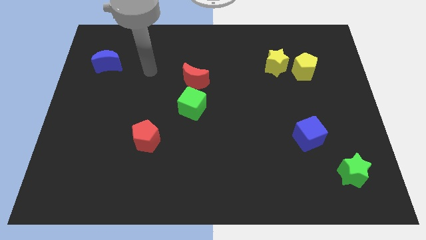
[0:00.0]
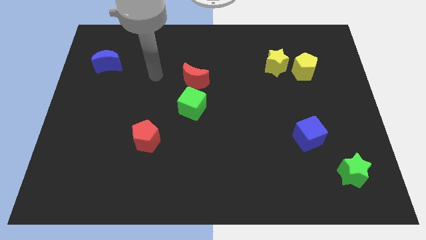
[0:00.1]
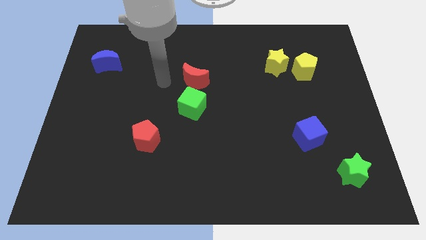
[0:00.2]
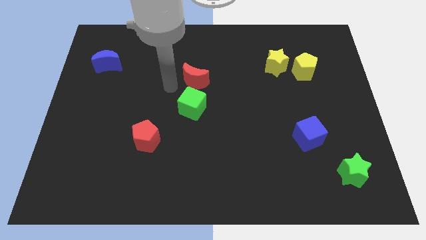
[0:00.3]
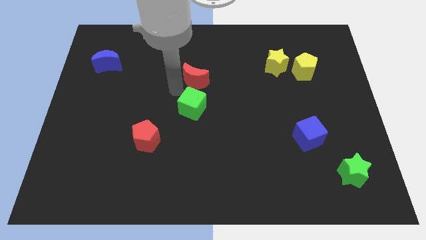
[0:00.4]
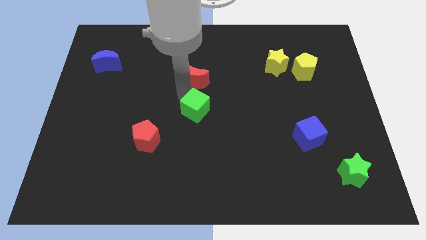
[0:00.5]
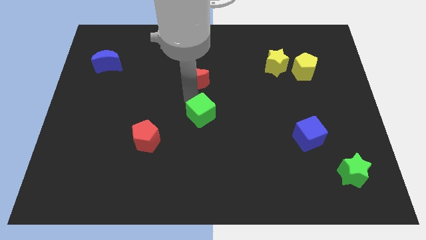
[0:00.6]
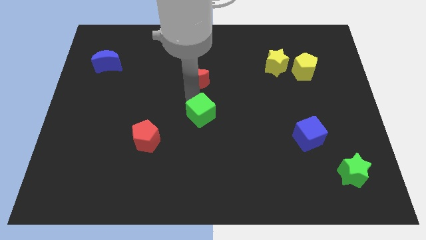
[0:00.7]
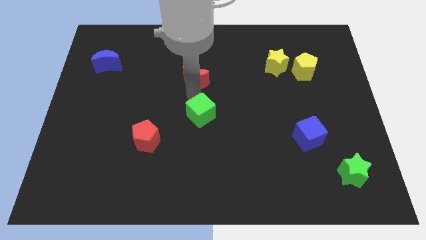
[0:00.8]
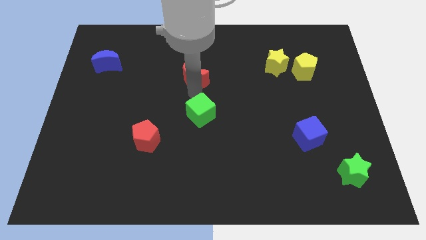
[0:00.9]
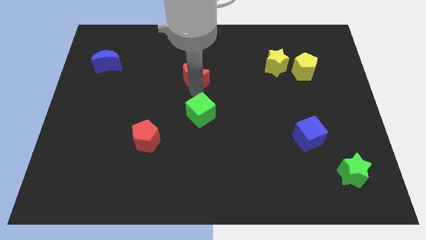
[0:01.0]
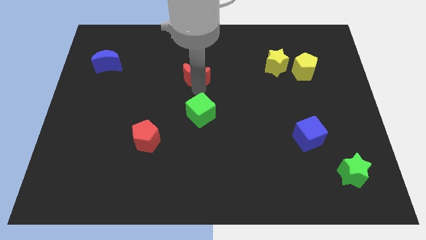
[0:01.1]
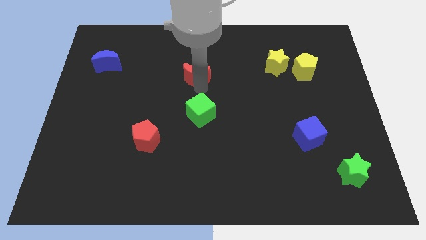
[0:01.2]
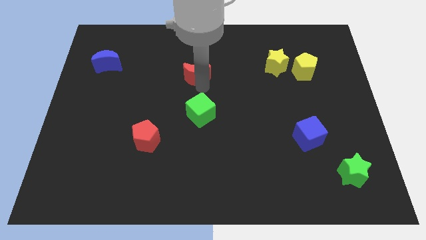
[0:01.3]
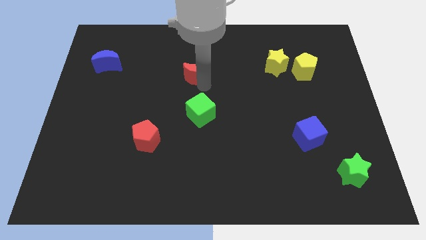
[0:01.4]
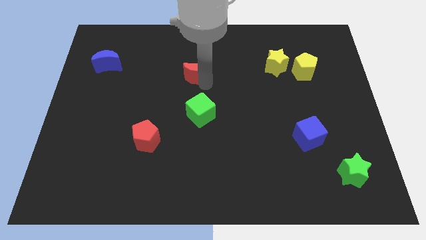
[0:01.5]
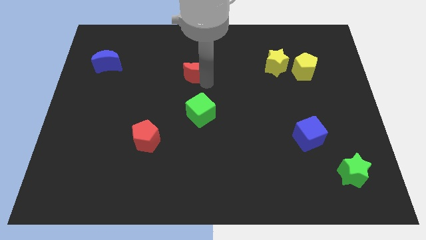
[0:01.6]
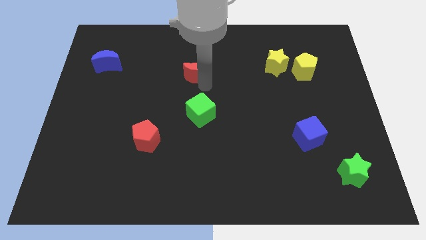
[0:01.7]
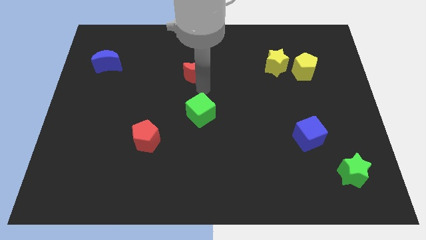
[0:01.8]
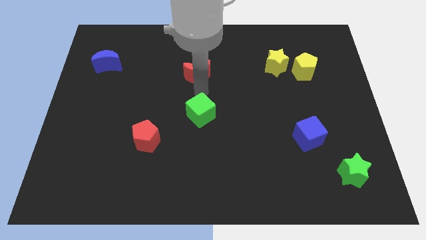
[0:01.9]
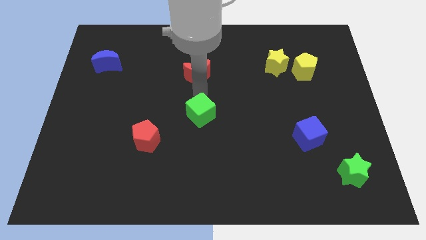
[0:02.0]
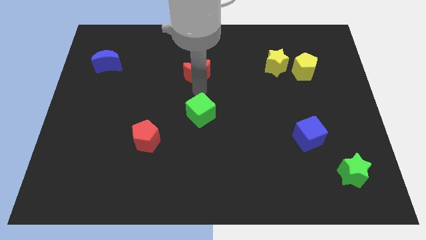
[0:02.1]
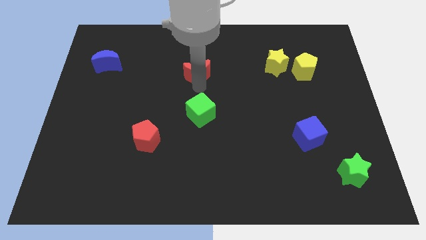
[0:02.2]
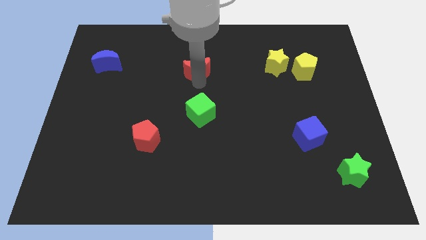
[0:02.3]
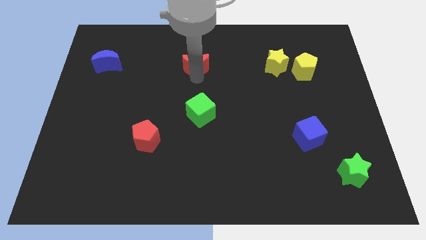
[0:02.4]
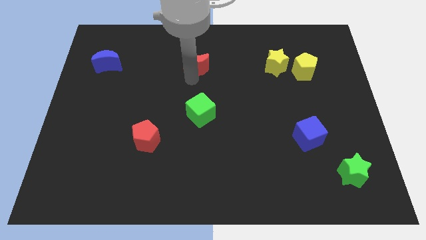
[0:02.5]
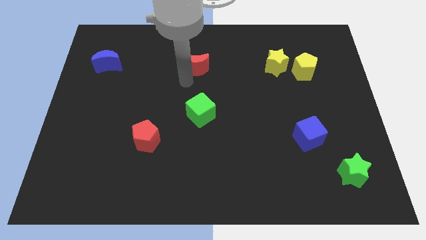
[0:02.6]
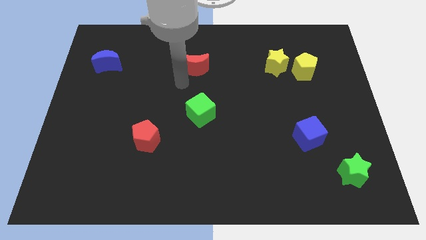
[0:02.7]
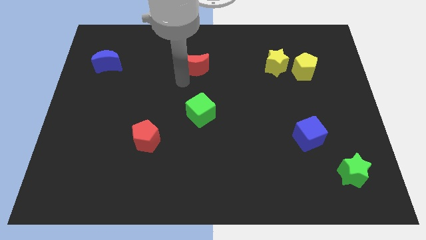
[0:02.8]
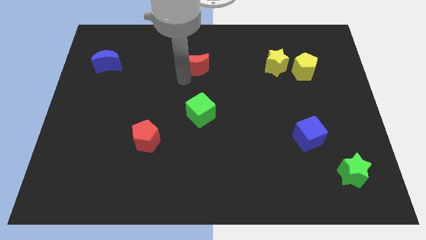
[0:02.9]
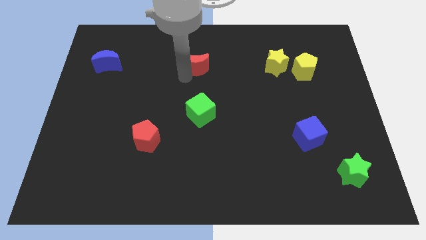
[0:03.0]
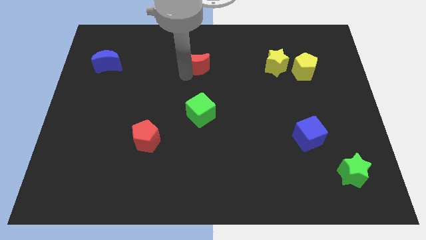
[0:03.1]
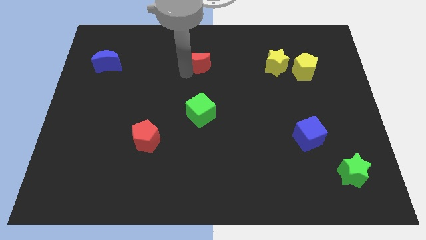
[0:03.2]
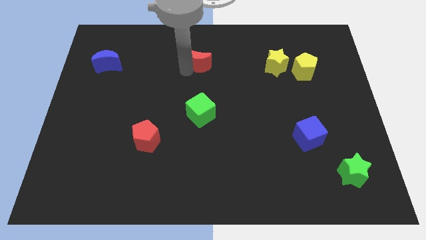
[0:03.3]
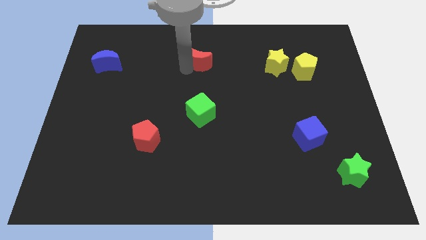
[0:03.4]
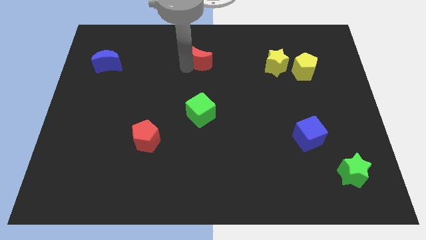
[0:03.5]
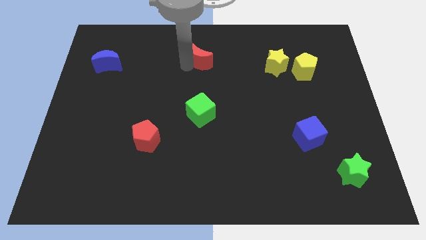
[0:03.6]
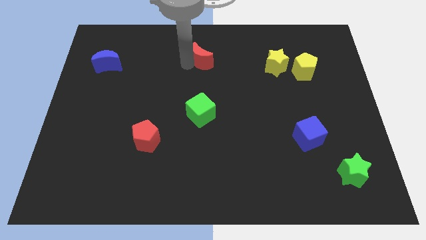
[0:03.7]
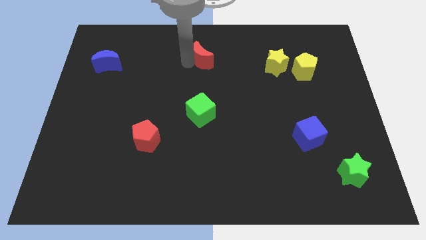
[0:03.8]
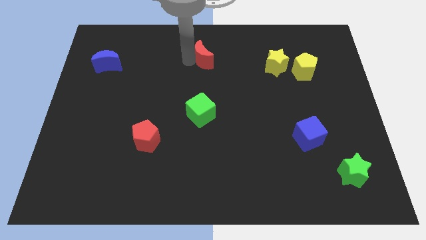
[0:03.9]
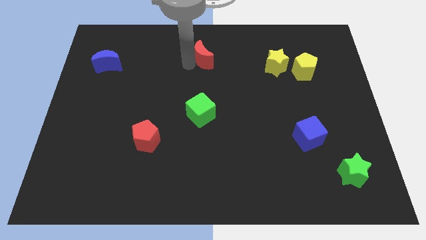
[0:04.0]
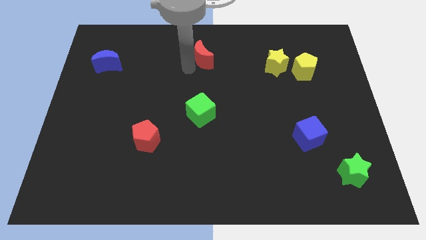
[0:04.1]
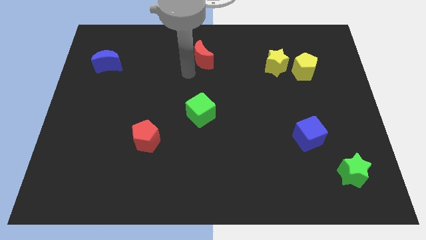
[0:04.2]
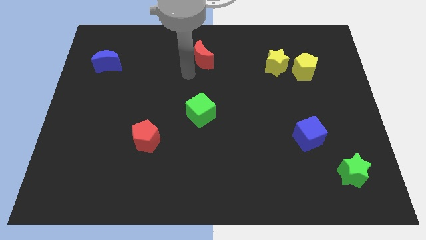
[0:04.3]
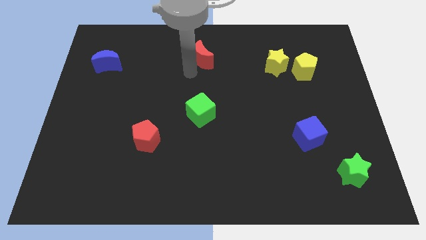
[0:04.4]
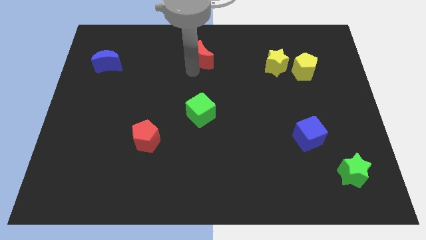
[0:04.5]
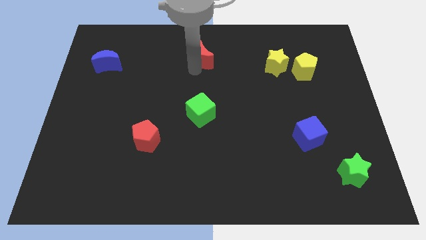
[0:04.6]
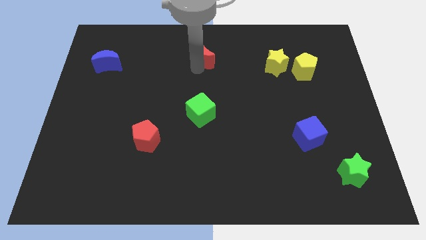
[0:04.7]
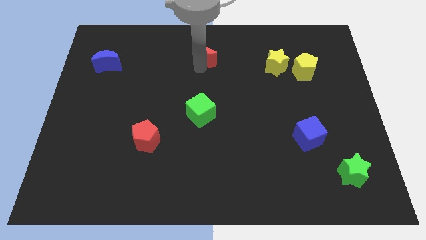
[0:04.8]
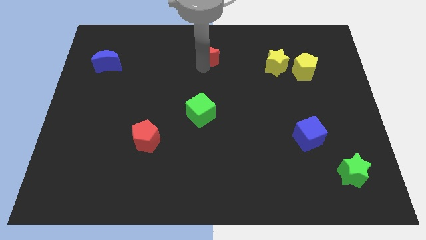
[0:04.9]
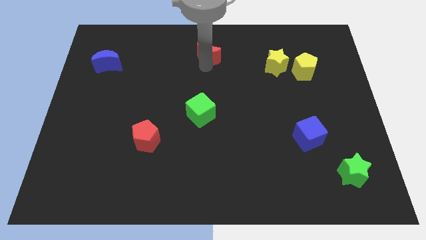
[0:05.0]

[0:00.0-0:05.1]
push the red moon to the top side

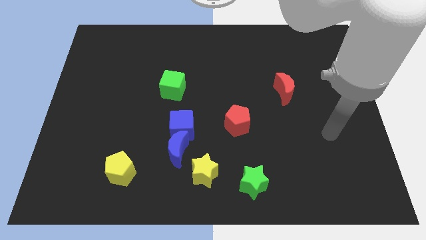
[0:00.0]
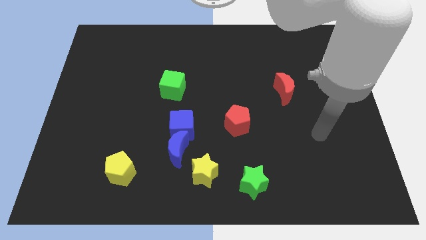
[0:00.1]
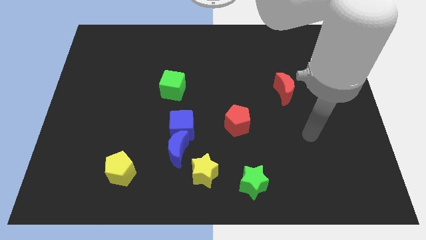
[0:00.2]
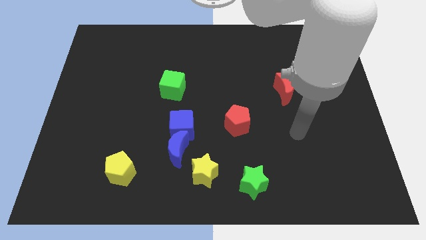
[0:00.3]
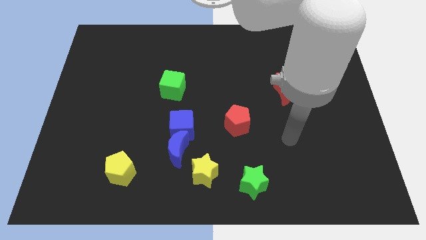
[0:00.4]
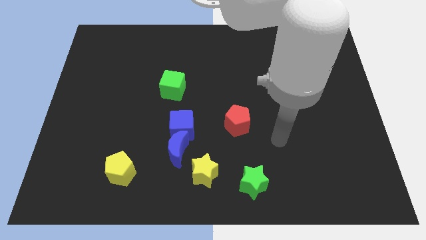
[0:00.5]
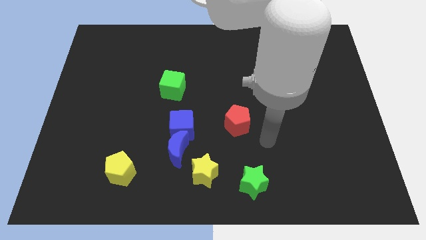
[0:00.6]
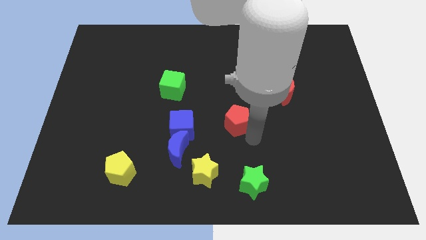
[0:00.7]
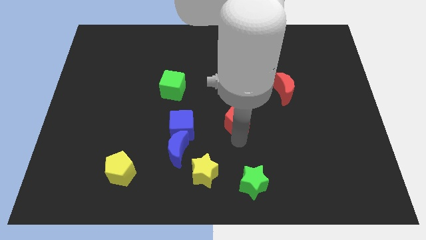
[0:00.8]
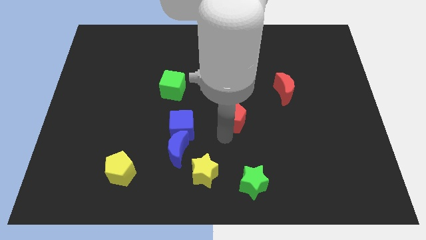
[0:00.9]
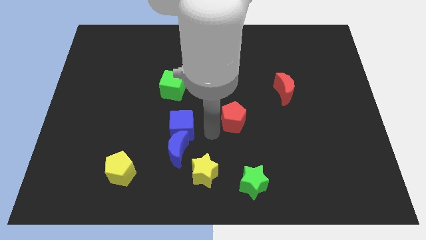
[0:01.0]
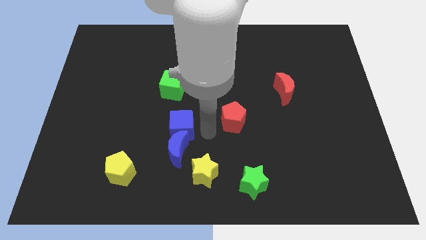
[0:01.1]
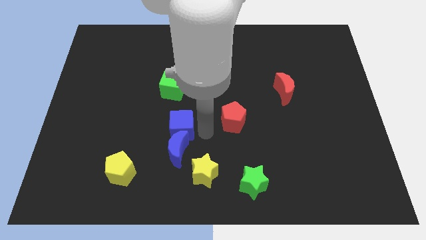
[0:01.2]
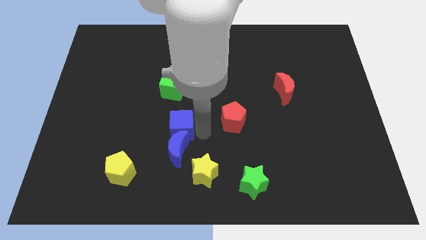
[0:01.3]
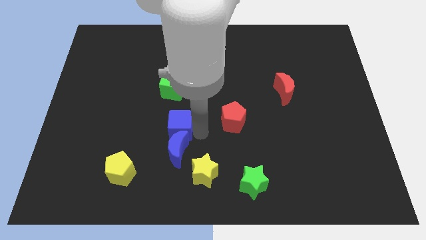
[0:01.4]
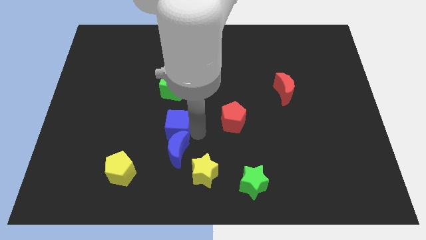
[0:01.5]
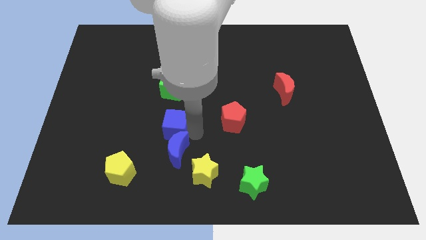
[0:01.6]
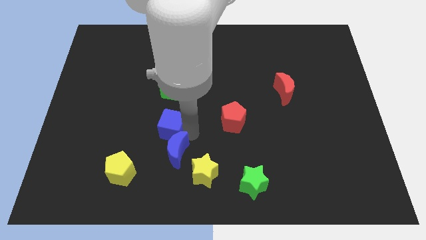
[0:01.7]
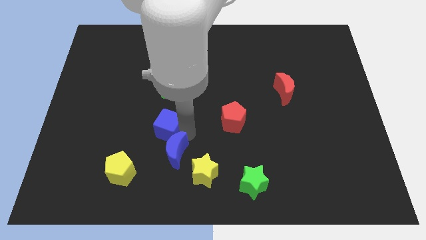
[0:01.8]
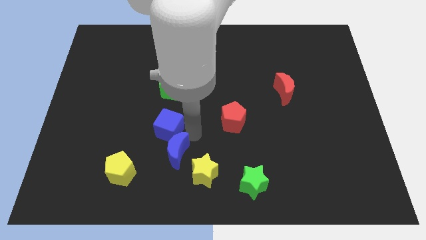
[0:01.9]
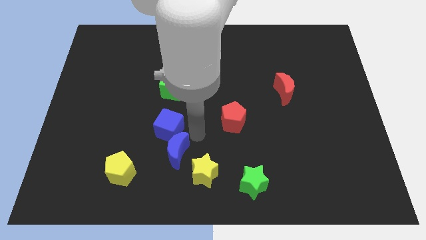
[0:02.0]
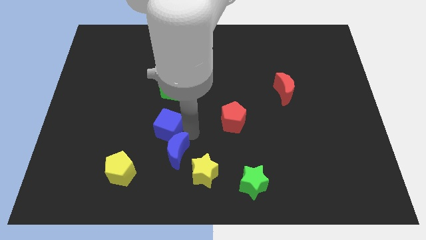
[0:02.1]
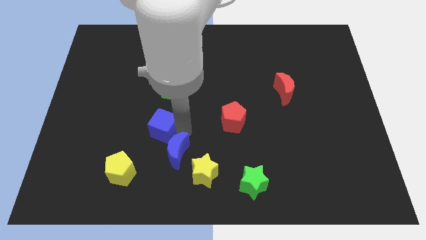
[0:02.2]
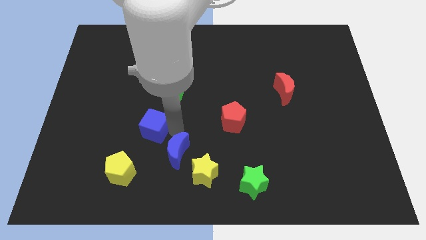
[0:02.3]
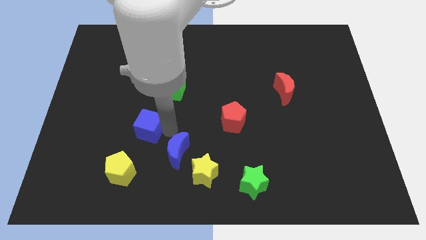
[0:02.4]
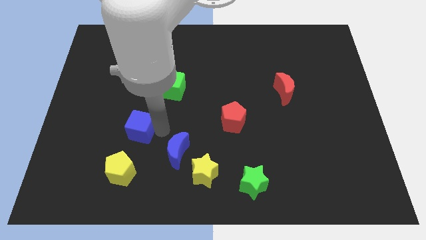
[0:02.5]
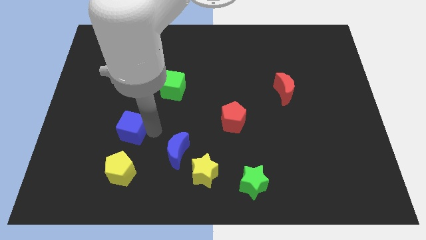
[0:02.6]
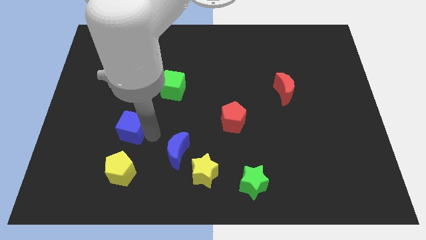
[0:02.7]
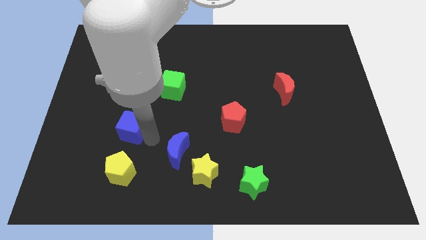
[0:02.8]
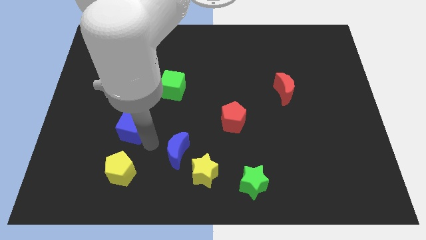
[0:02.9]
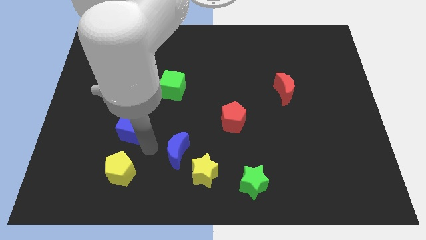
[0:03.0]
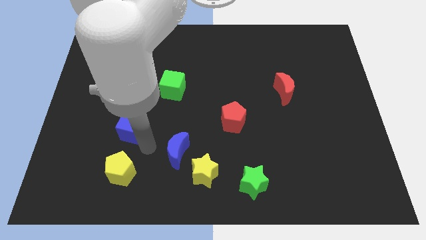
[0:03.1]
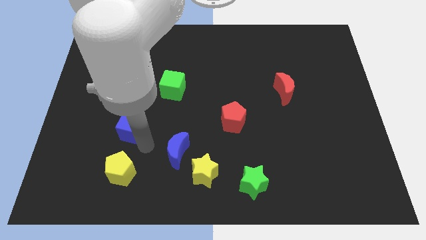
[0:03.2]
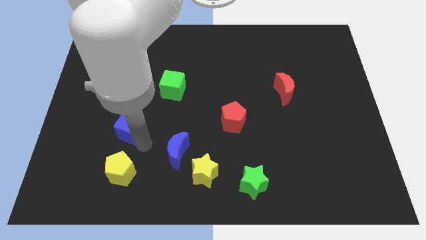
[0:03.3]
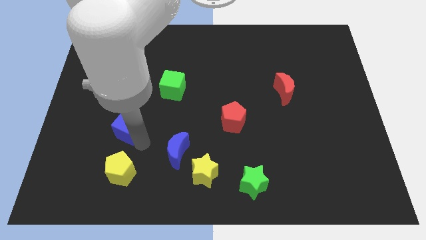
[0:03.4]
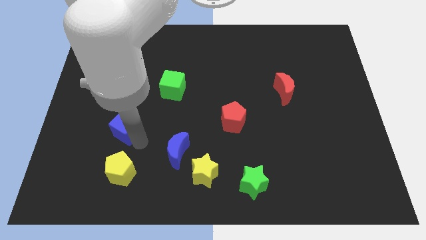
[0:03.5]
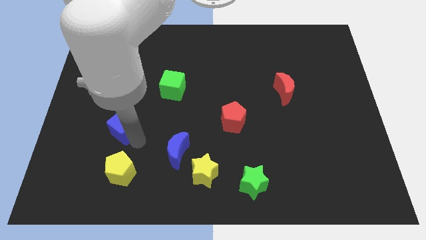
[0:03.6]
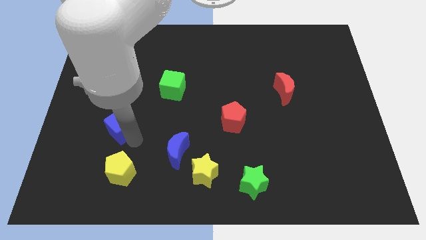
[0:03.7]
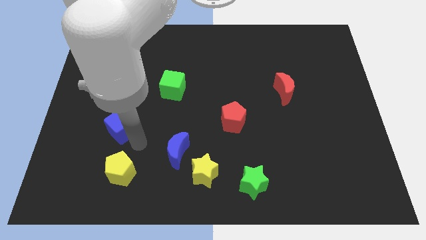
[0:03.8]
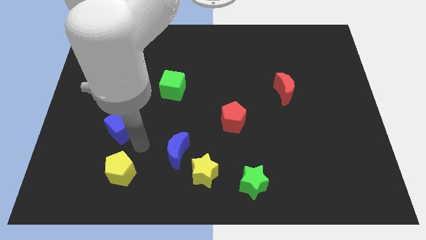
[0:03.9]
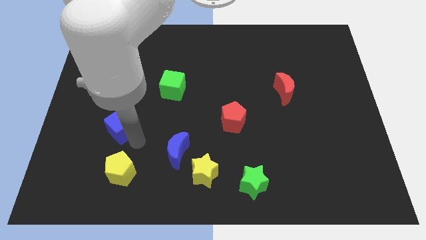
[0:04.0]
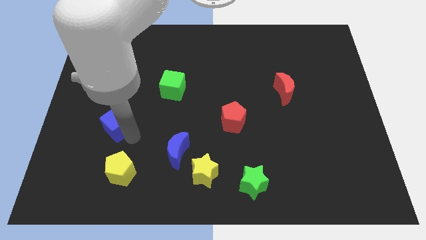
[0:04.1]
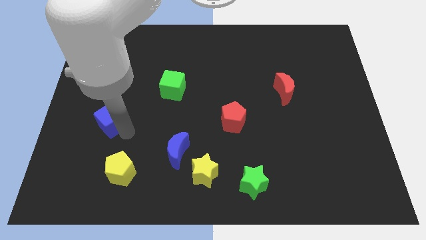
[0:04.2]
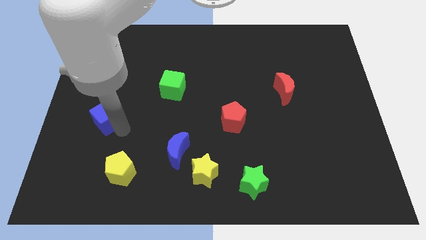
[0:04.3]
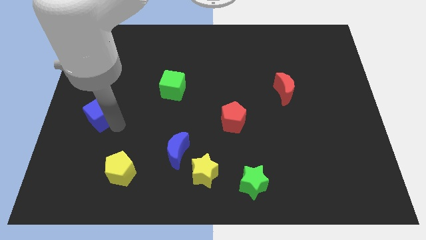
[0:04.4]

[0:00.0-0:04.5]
slide the blue cube to the left side
